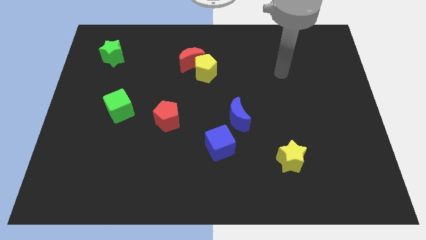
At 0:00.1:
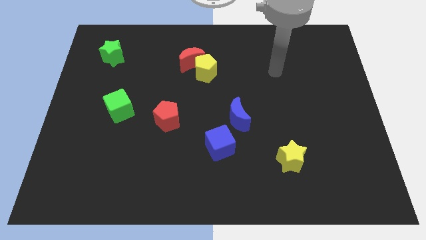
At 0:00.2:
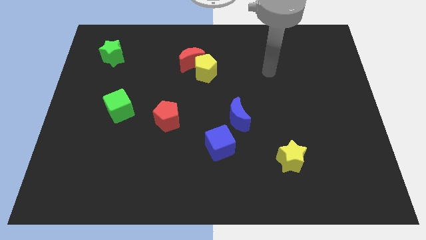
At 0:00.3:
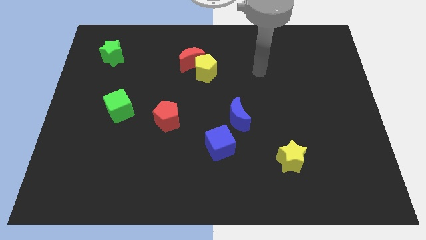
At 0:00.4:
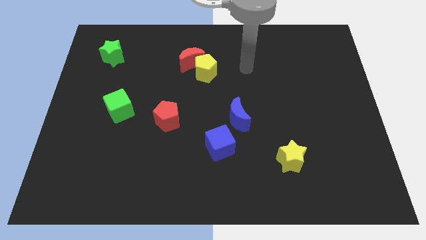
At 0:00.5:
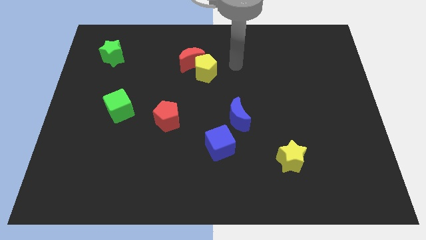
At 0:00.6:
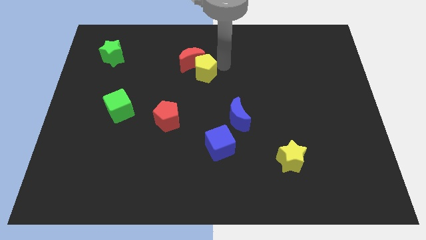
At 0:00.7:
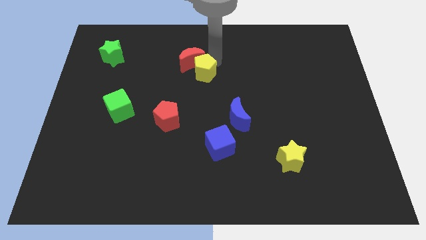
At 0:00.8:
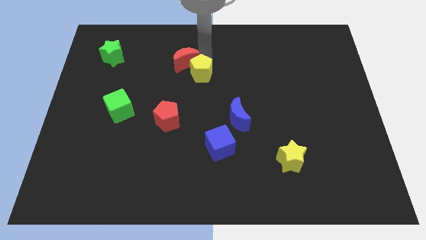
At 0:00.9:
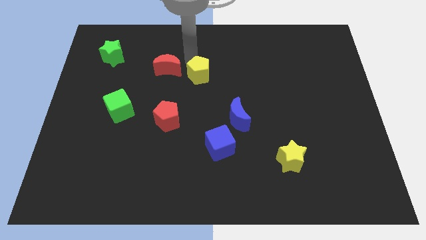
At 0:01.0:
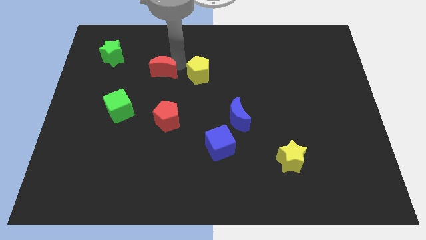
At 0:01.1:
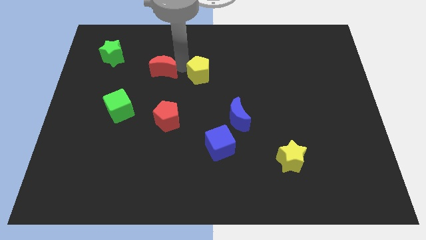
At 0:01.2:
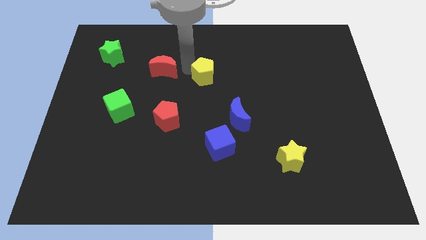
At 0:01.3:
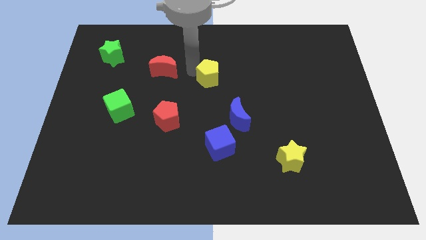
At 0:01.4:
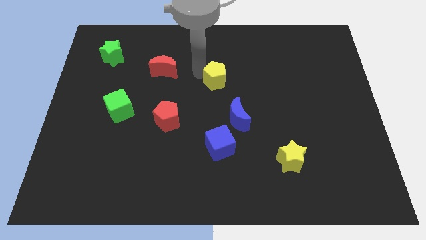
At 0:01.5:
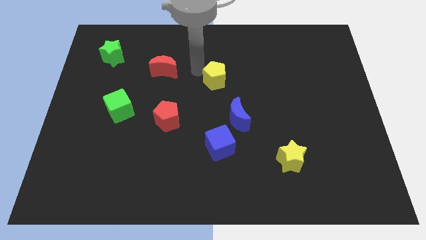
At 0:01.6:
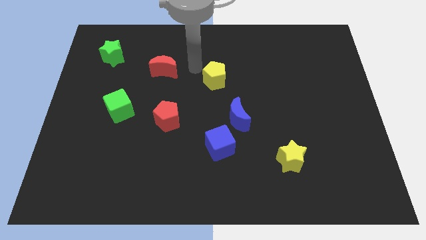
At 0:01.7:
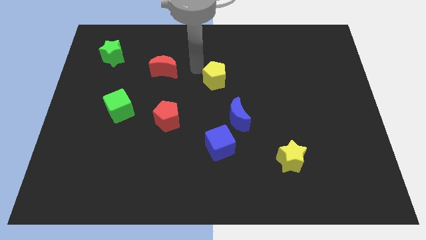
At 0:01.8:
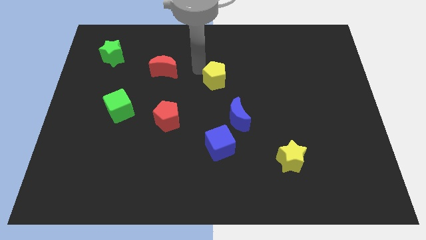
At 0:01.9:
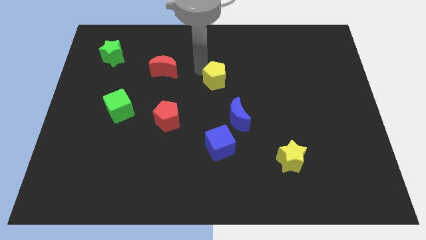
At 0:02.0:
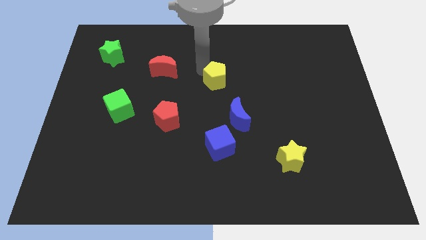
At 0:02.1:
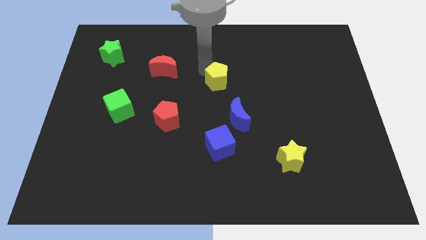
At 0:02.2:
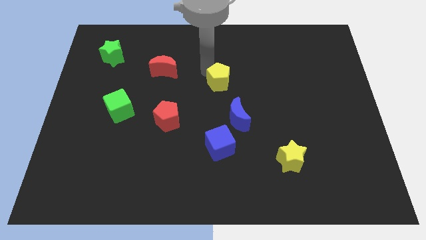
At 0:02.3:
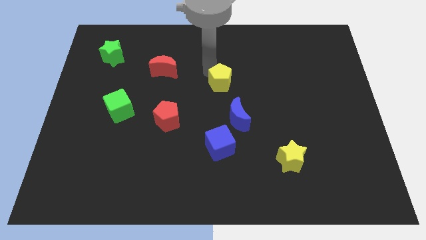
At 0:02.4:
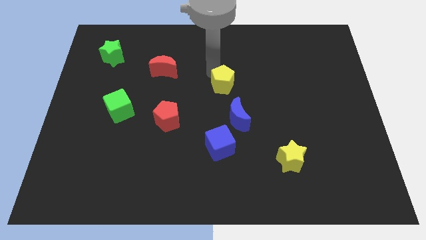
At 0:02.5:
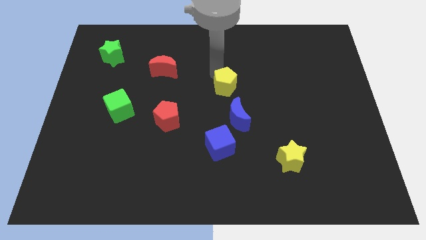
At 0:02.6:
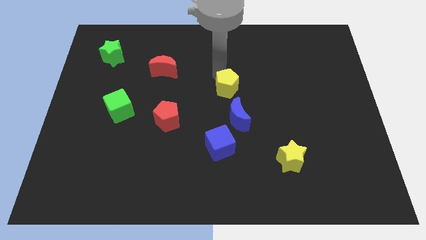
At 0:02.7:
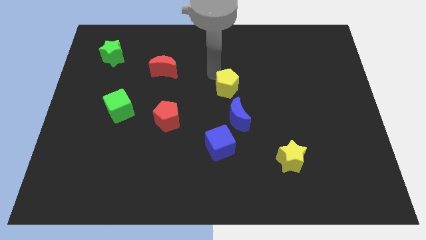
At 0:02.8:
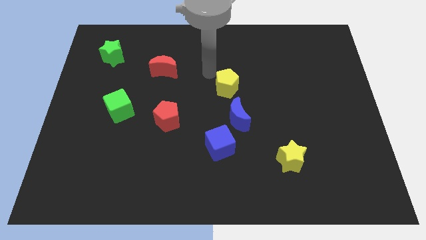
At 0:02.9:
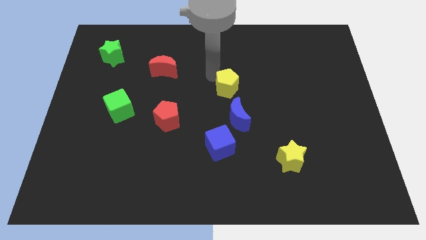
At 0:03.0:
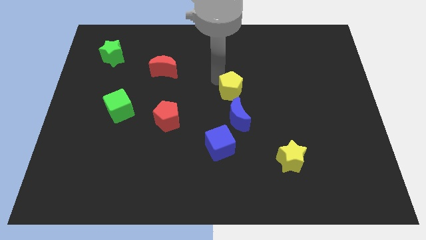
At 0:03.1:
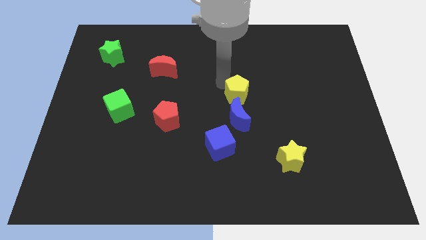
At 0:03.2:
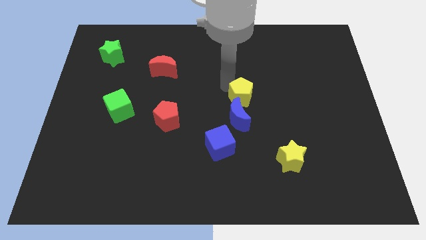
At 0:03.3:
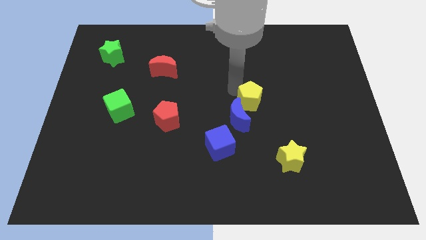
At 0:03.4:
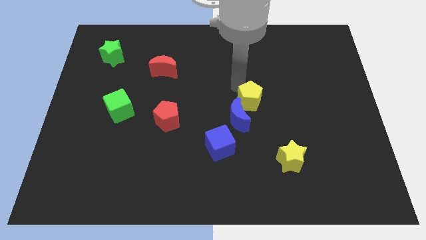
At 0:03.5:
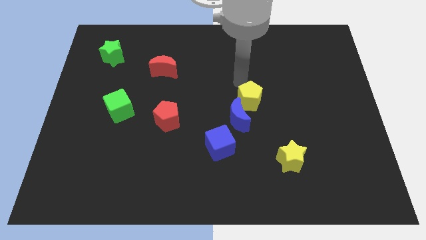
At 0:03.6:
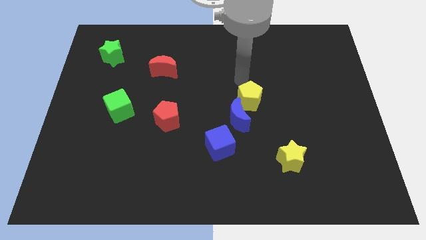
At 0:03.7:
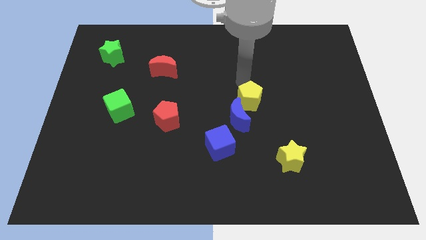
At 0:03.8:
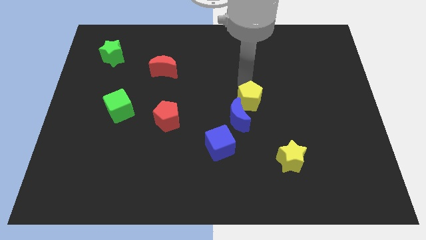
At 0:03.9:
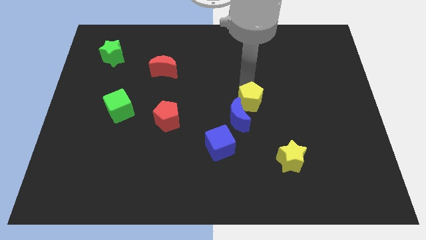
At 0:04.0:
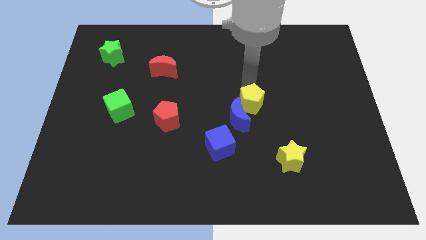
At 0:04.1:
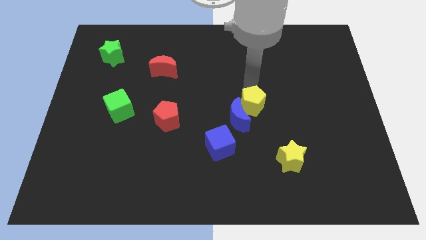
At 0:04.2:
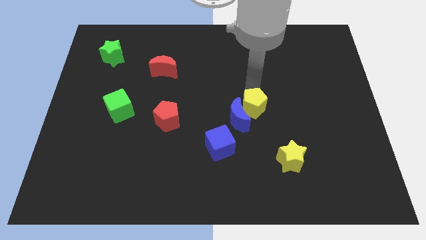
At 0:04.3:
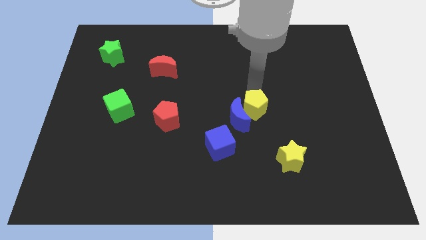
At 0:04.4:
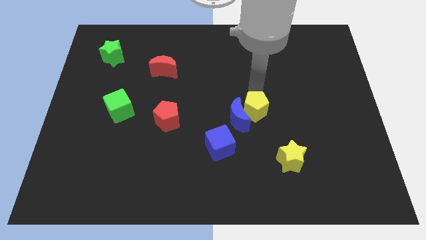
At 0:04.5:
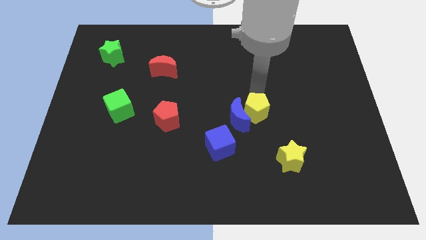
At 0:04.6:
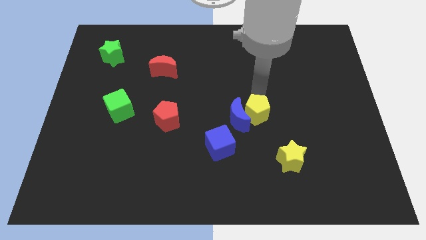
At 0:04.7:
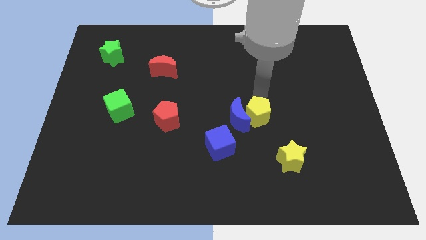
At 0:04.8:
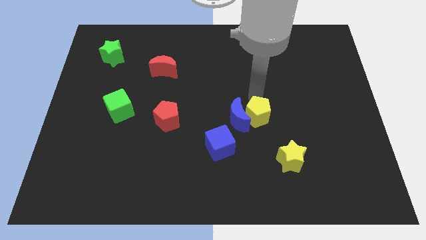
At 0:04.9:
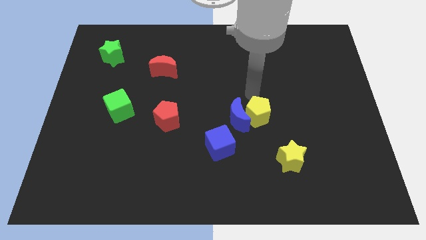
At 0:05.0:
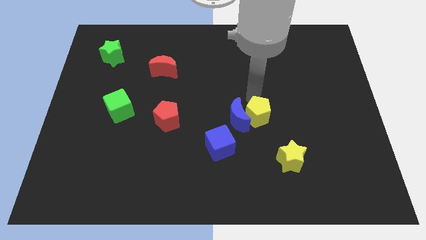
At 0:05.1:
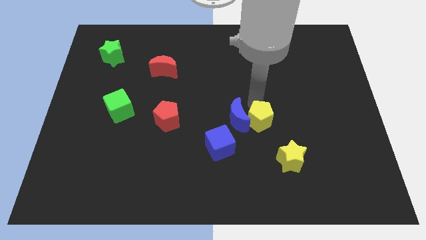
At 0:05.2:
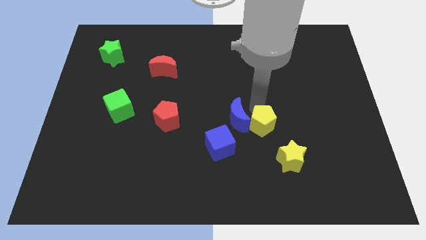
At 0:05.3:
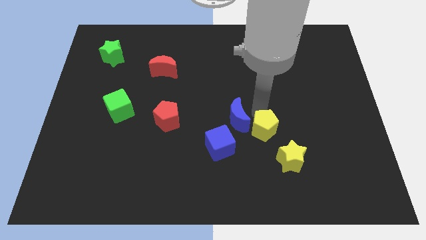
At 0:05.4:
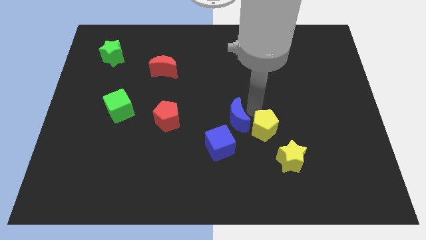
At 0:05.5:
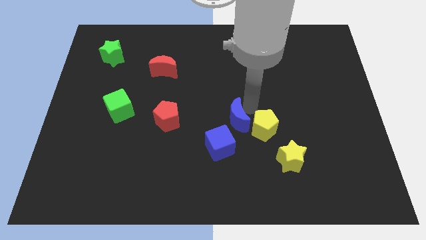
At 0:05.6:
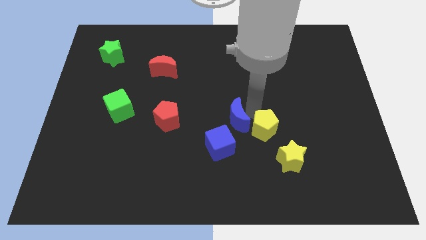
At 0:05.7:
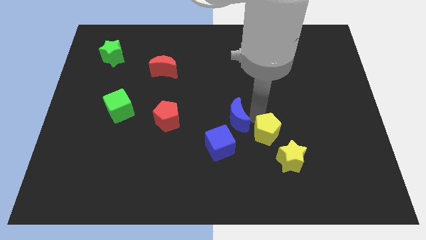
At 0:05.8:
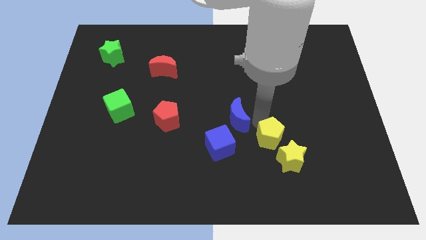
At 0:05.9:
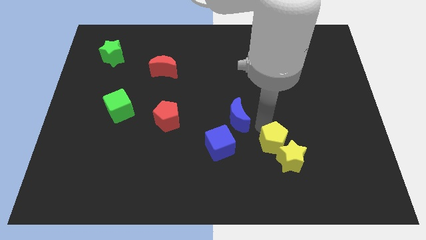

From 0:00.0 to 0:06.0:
put the yellow pentagon close to the yellow star

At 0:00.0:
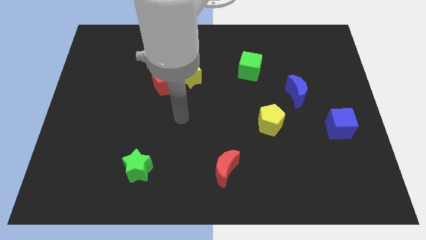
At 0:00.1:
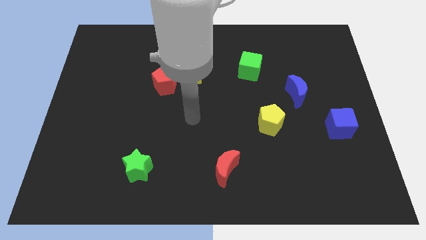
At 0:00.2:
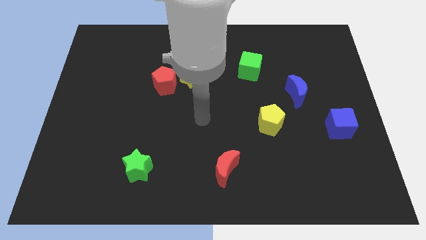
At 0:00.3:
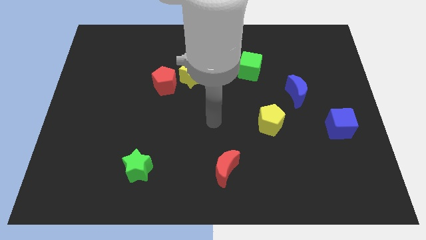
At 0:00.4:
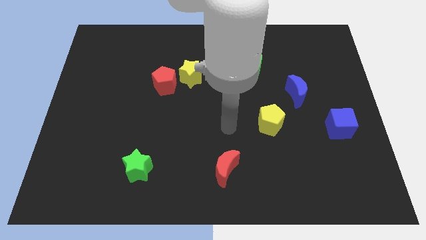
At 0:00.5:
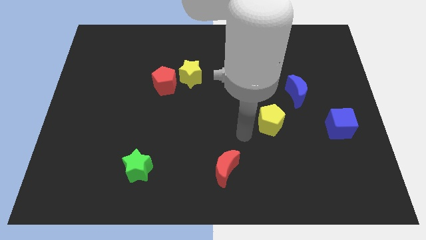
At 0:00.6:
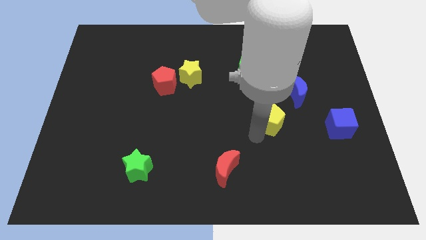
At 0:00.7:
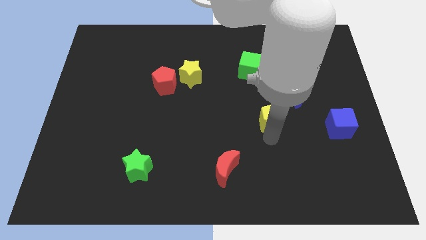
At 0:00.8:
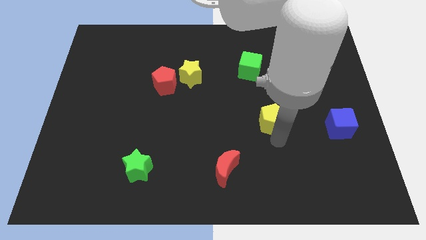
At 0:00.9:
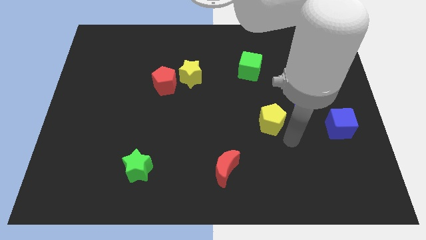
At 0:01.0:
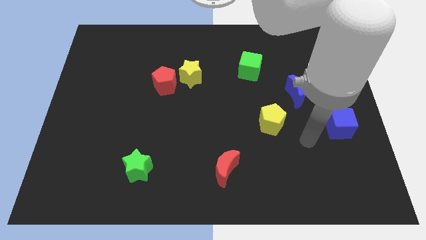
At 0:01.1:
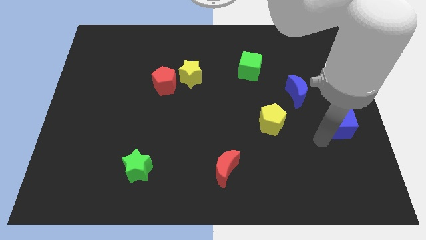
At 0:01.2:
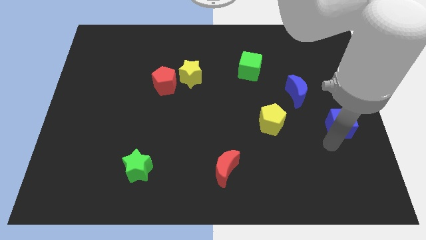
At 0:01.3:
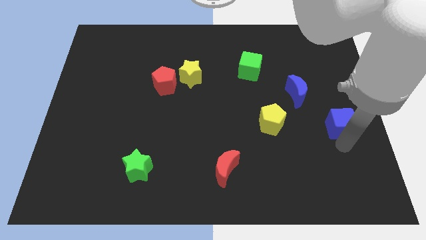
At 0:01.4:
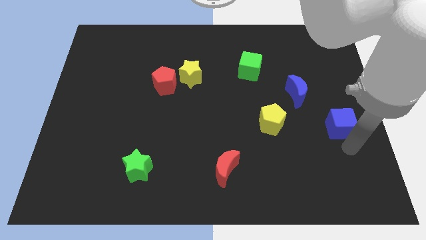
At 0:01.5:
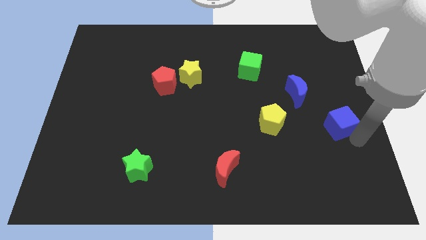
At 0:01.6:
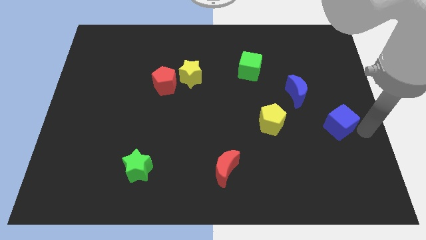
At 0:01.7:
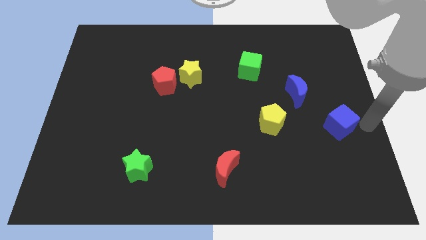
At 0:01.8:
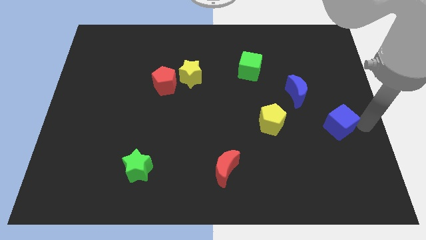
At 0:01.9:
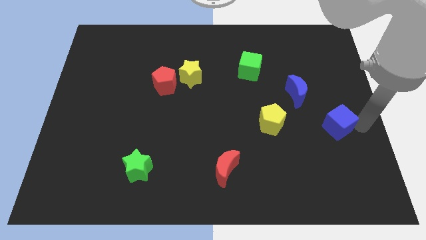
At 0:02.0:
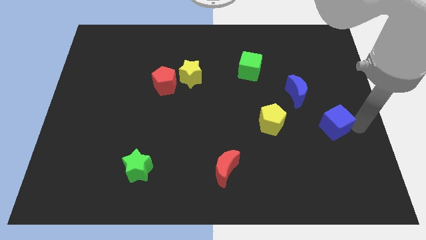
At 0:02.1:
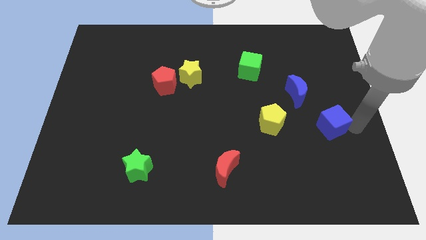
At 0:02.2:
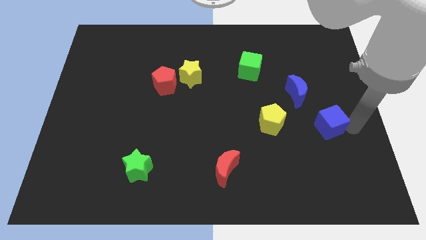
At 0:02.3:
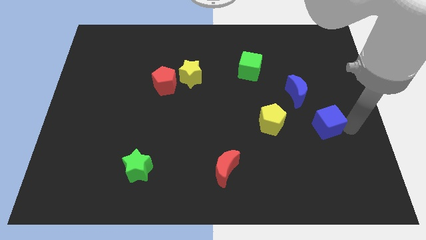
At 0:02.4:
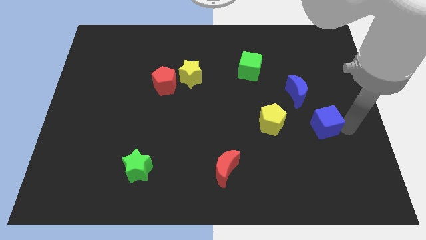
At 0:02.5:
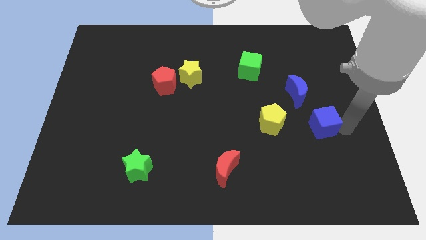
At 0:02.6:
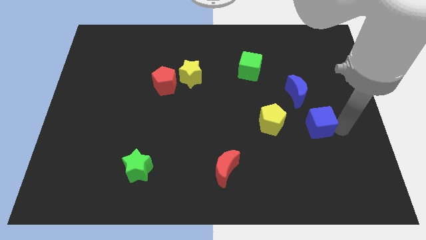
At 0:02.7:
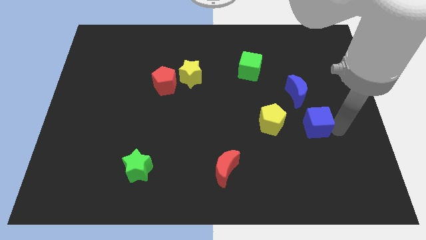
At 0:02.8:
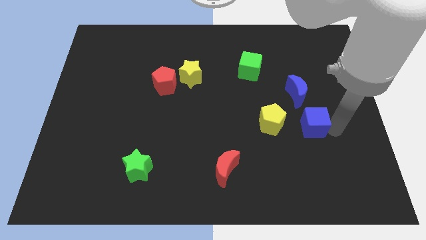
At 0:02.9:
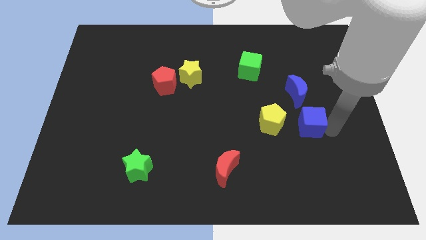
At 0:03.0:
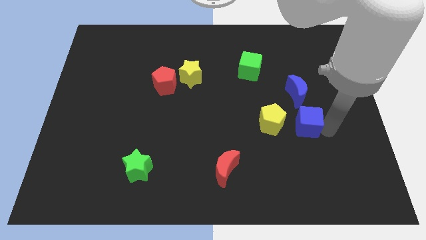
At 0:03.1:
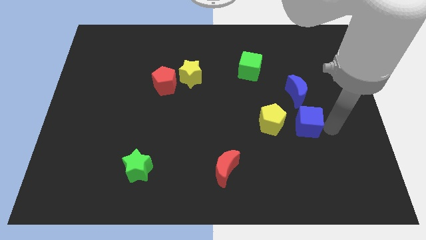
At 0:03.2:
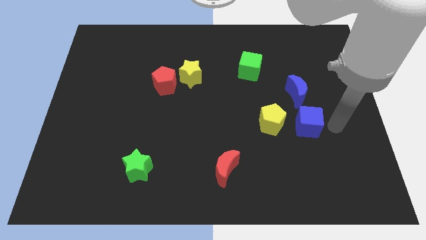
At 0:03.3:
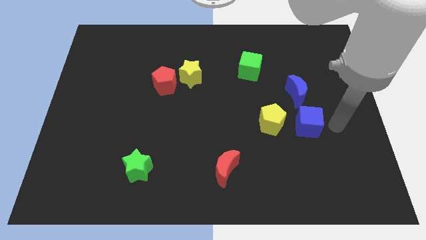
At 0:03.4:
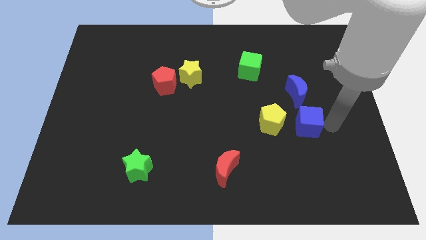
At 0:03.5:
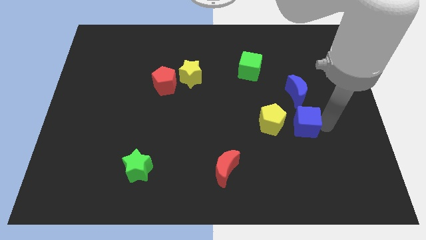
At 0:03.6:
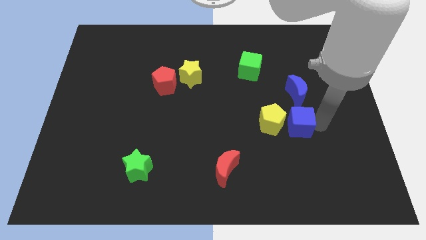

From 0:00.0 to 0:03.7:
push the blue cube close to the yellow pentagon
